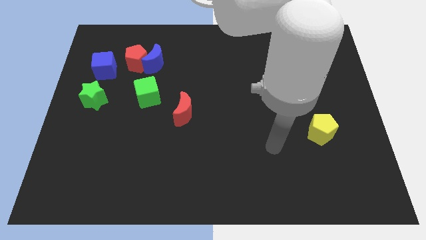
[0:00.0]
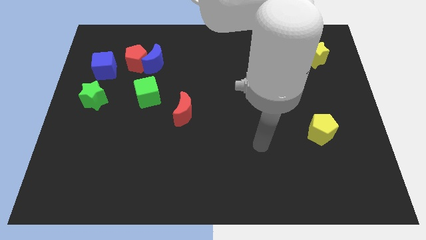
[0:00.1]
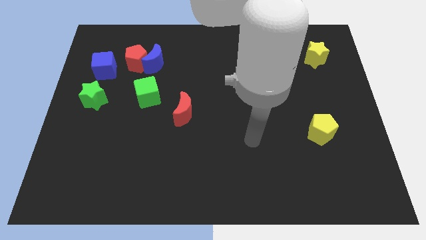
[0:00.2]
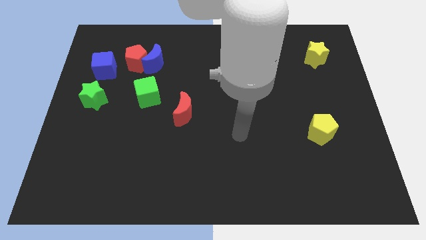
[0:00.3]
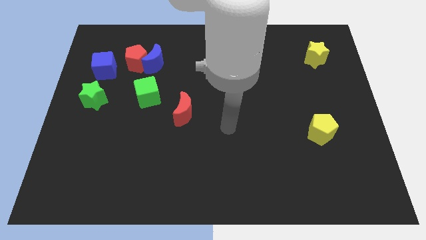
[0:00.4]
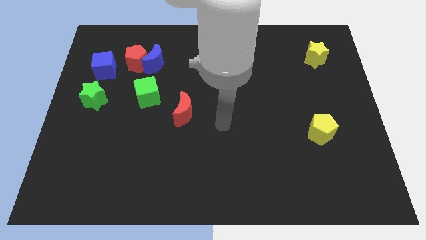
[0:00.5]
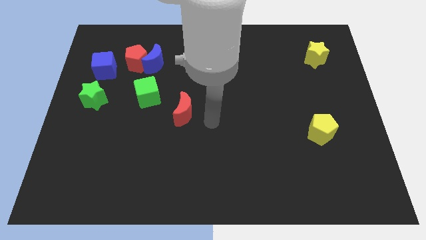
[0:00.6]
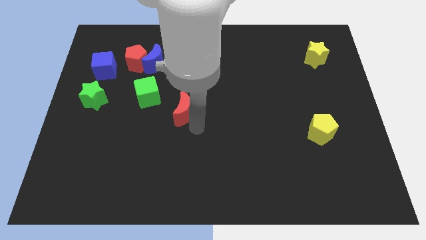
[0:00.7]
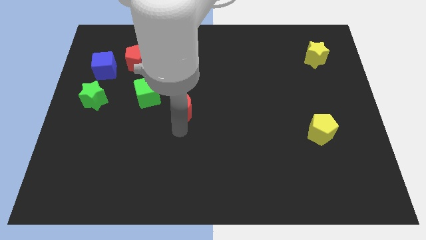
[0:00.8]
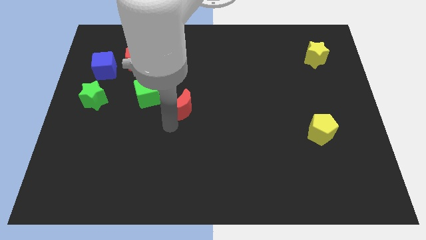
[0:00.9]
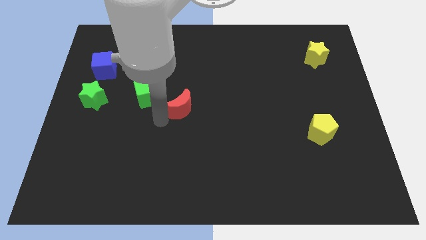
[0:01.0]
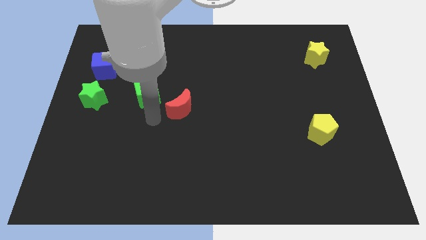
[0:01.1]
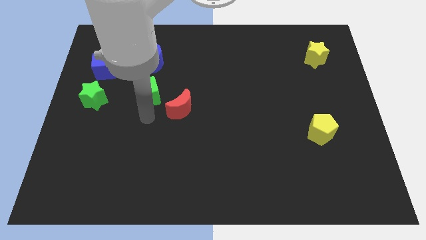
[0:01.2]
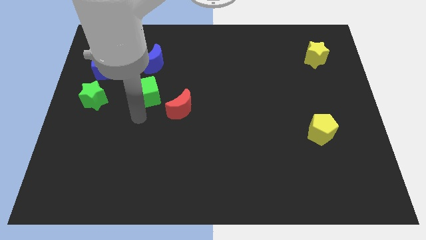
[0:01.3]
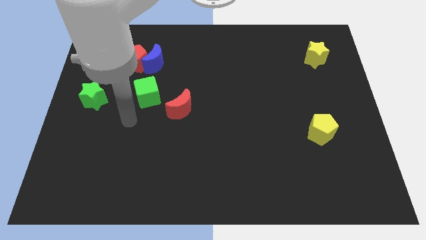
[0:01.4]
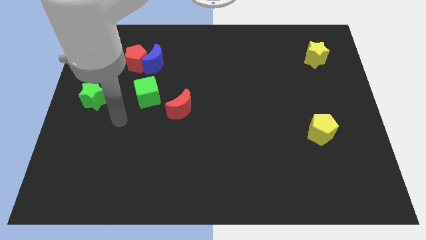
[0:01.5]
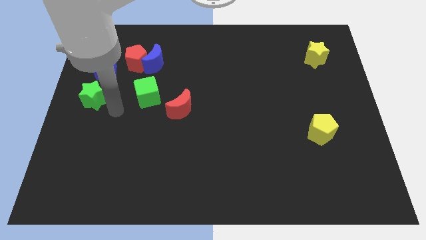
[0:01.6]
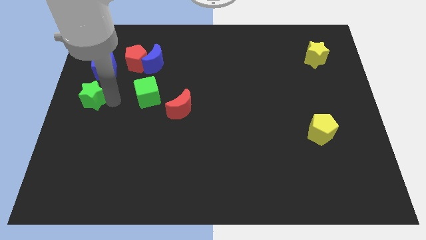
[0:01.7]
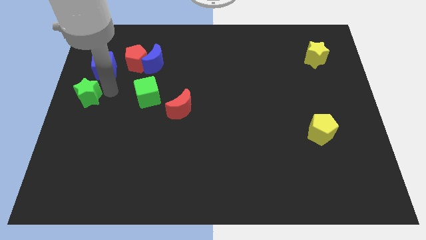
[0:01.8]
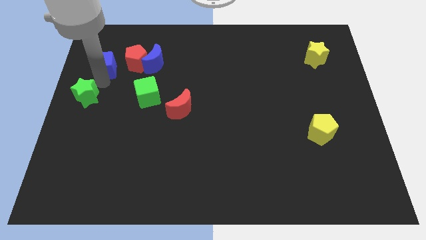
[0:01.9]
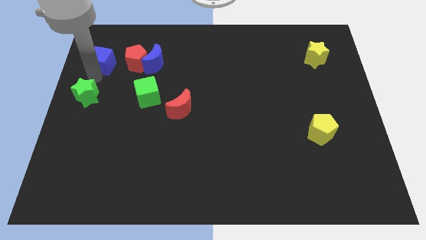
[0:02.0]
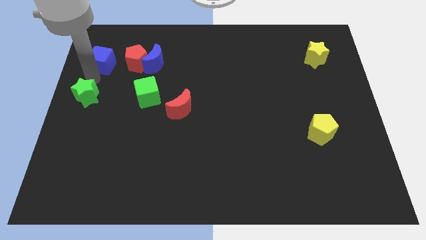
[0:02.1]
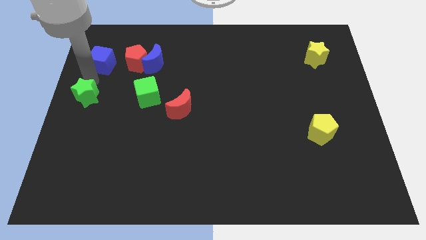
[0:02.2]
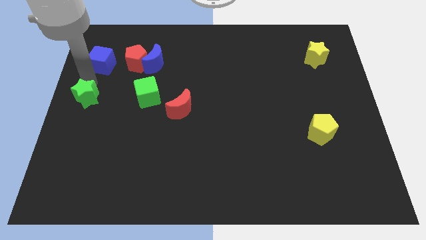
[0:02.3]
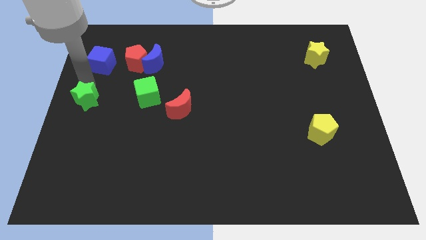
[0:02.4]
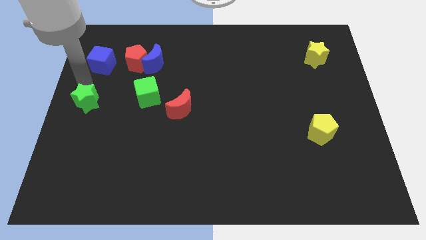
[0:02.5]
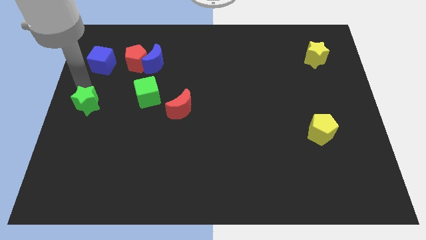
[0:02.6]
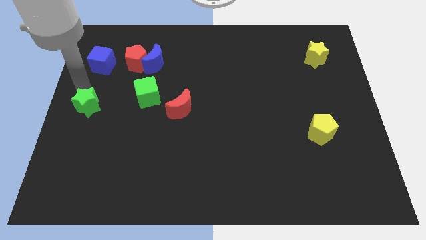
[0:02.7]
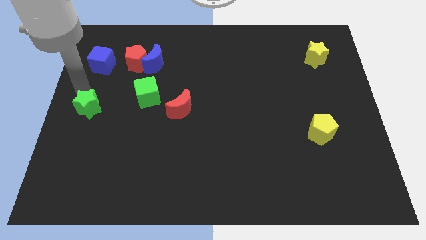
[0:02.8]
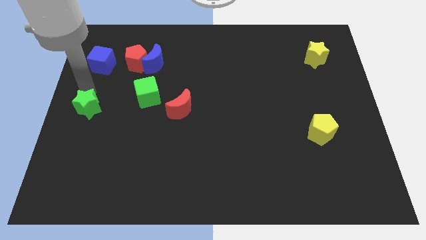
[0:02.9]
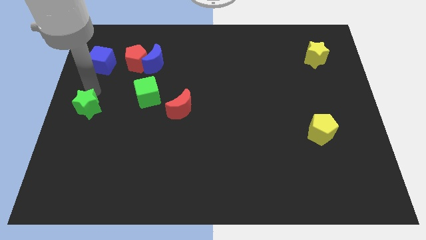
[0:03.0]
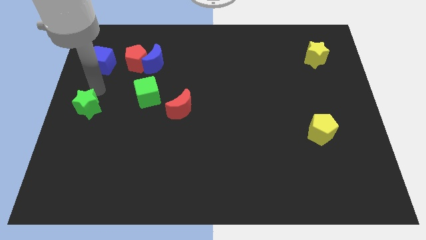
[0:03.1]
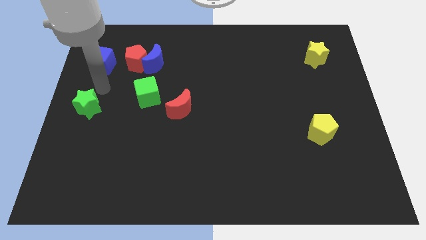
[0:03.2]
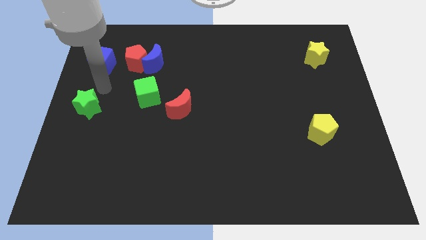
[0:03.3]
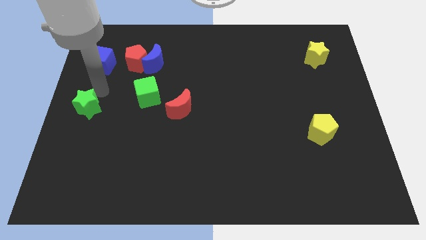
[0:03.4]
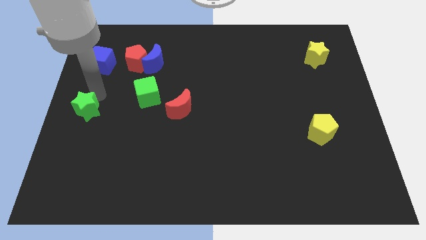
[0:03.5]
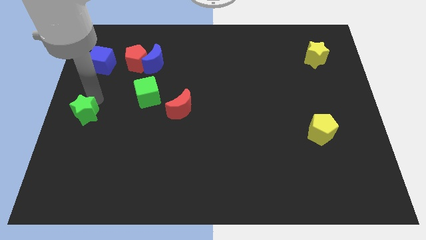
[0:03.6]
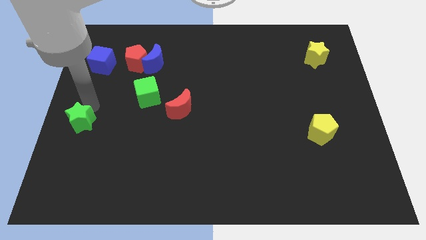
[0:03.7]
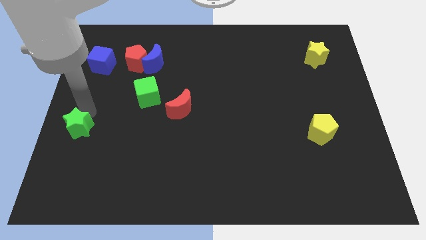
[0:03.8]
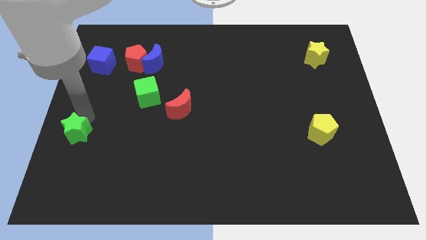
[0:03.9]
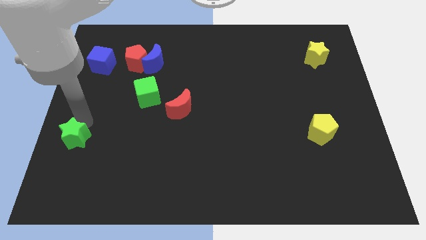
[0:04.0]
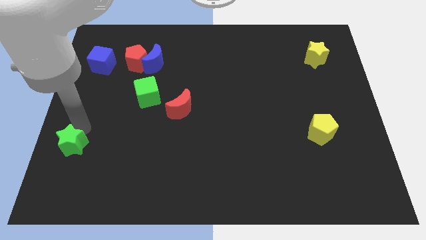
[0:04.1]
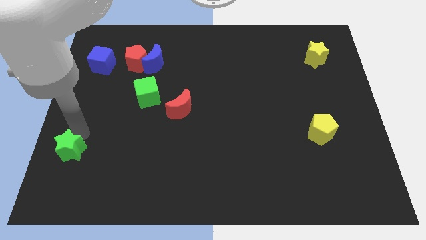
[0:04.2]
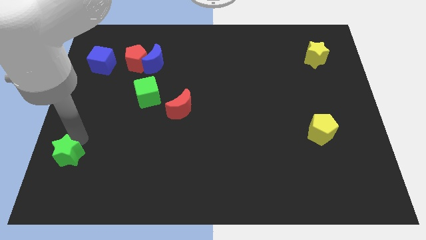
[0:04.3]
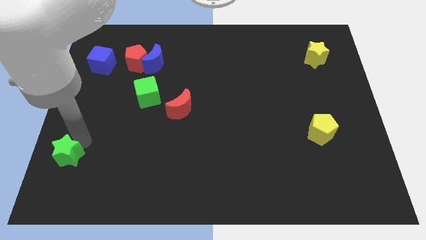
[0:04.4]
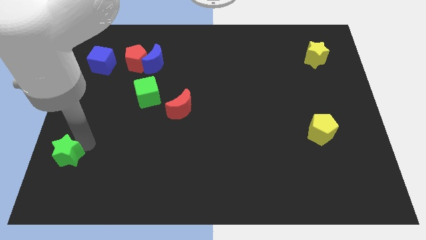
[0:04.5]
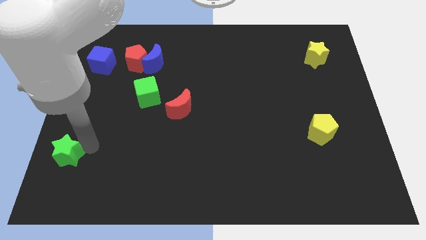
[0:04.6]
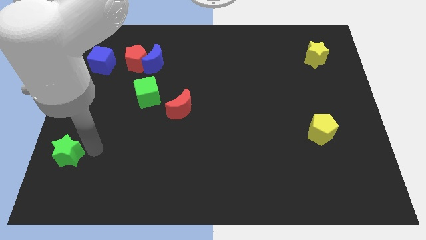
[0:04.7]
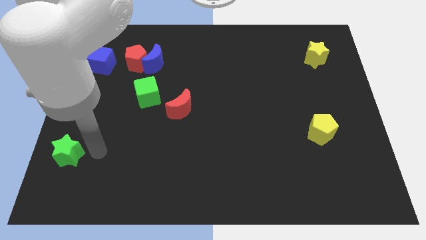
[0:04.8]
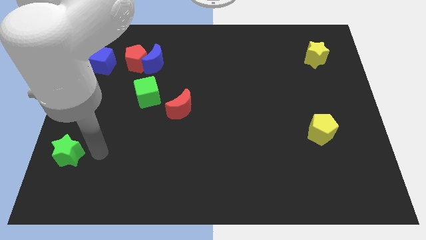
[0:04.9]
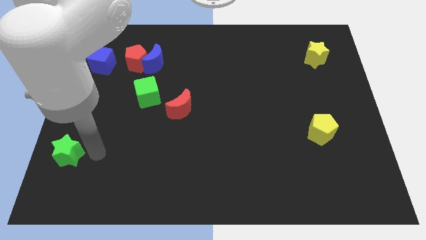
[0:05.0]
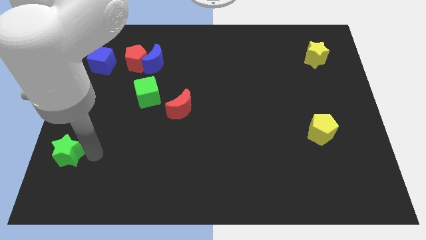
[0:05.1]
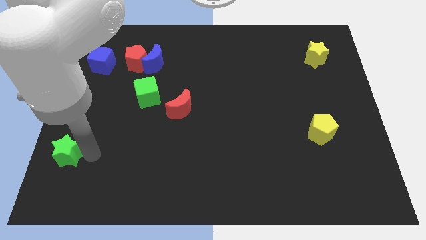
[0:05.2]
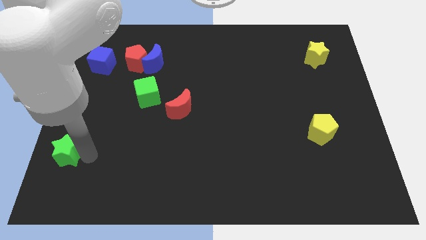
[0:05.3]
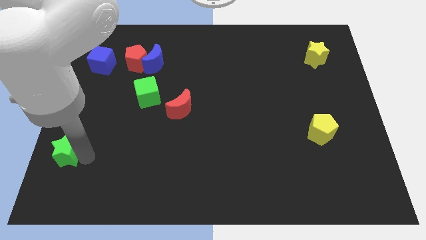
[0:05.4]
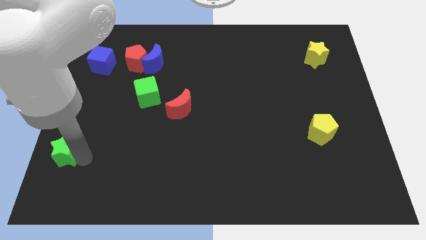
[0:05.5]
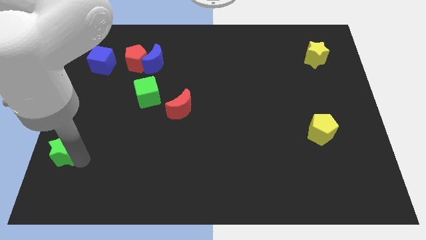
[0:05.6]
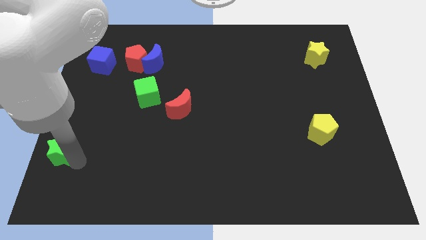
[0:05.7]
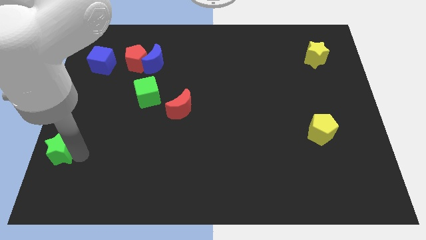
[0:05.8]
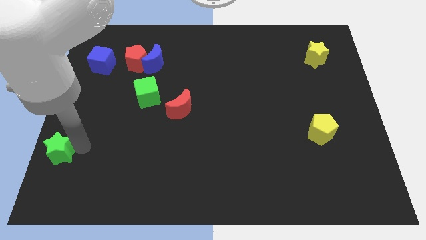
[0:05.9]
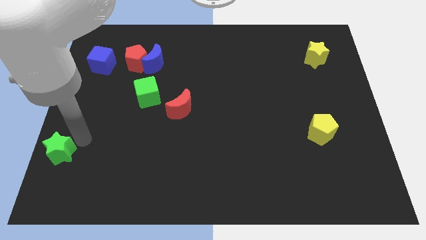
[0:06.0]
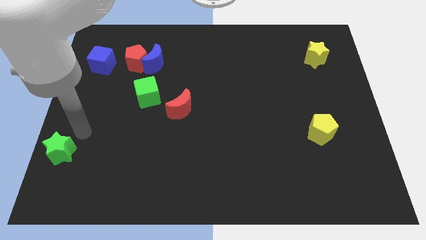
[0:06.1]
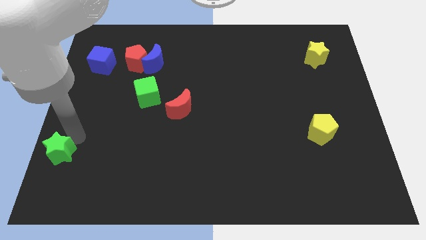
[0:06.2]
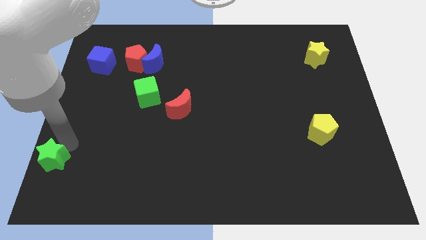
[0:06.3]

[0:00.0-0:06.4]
slide the green star to the bottom left corner
